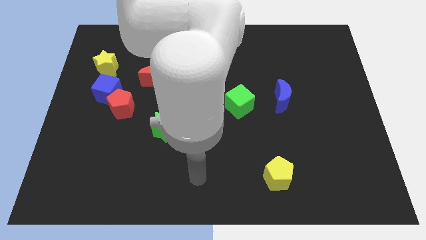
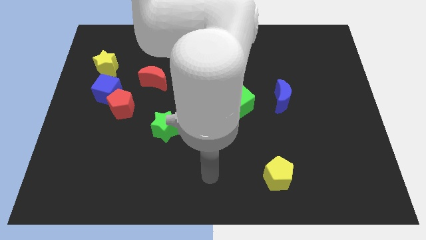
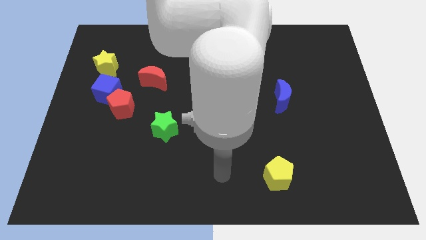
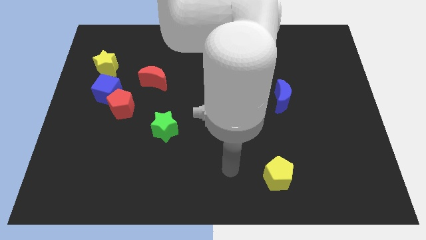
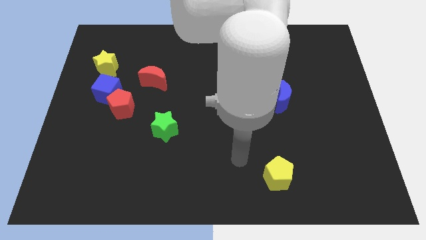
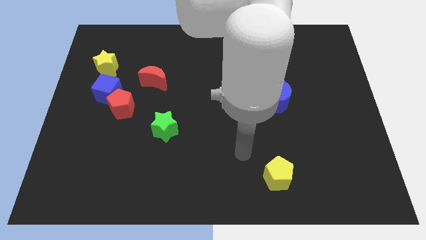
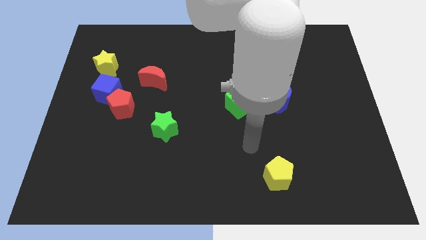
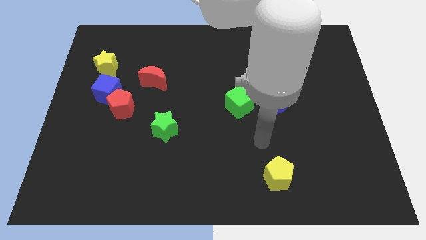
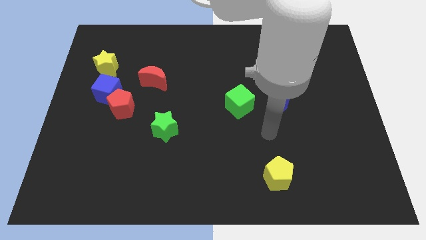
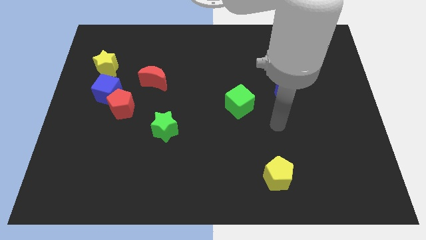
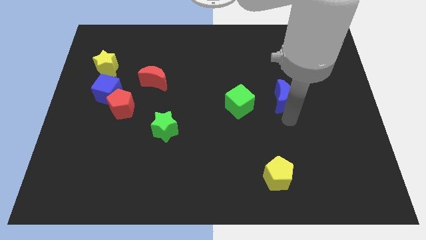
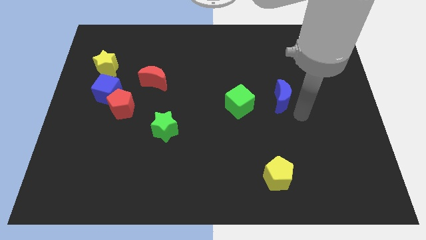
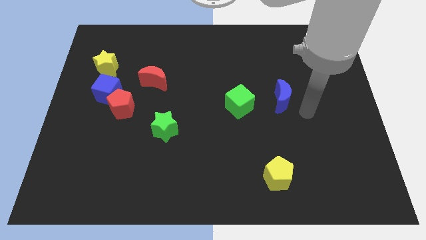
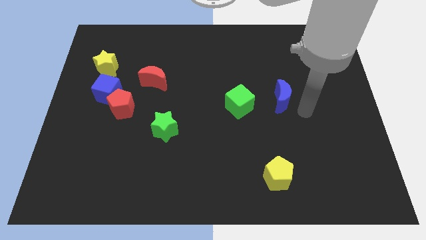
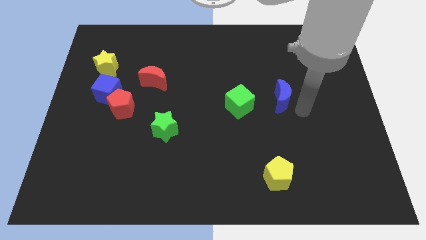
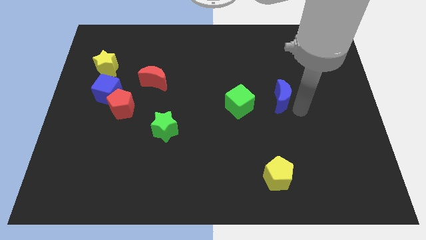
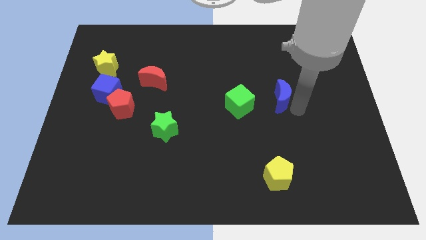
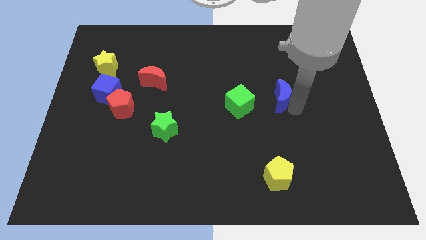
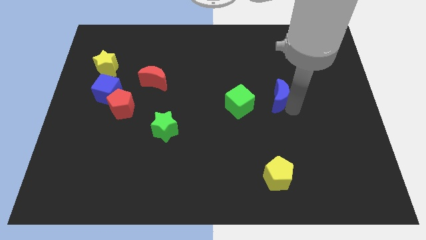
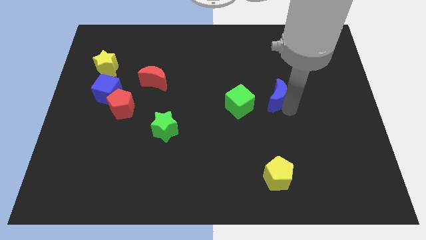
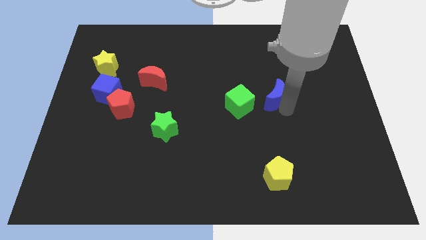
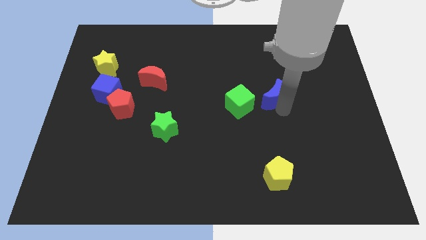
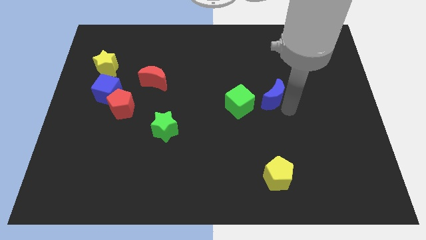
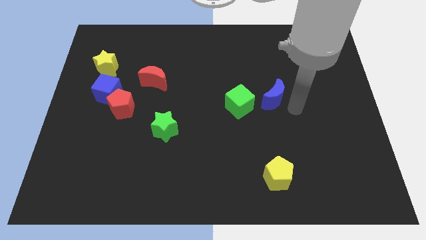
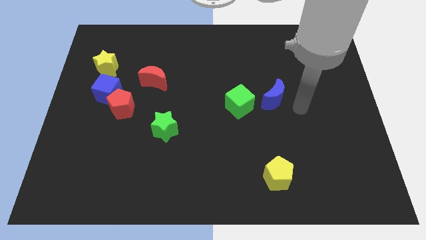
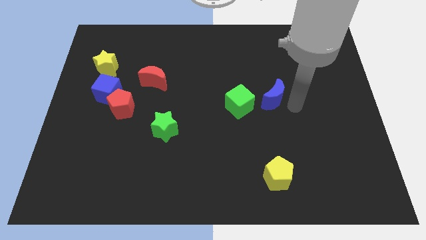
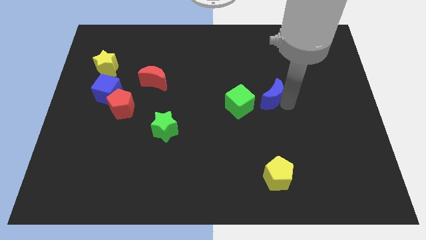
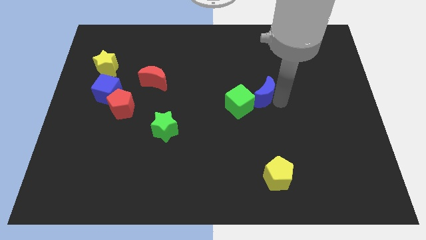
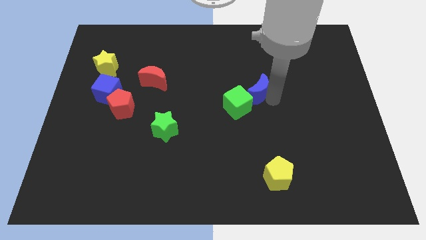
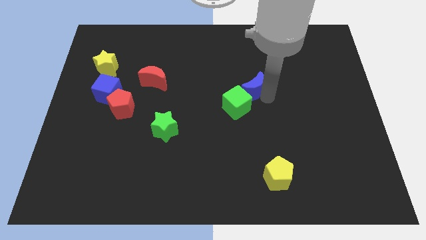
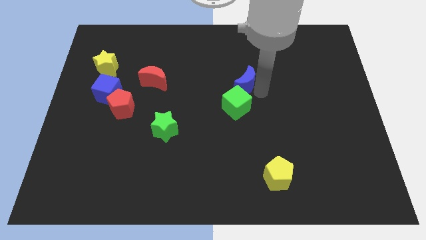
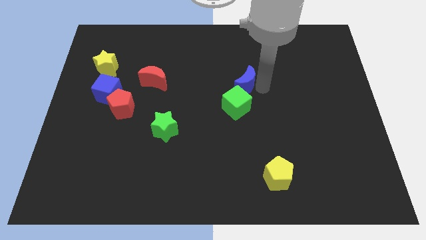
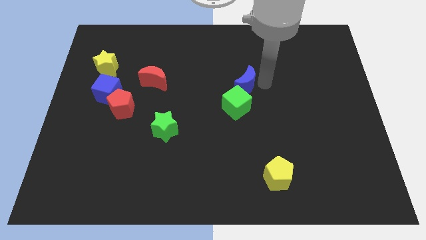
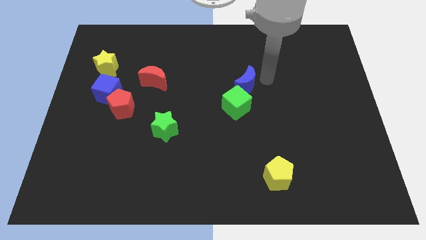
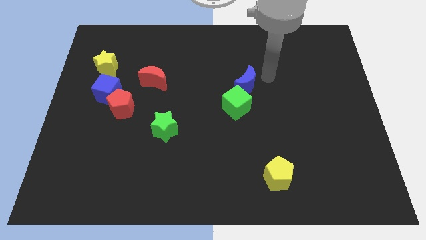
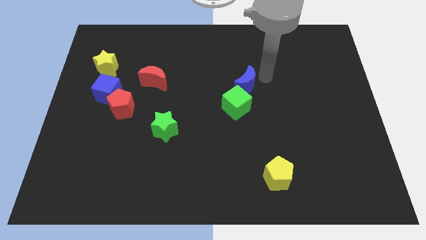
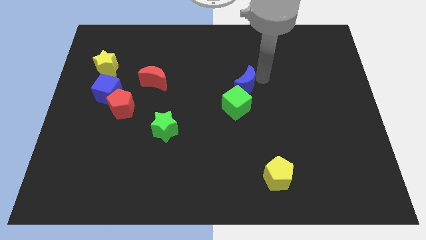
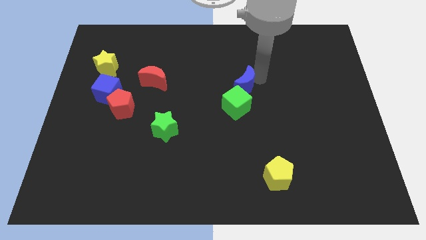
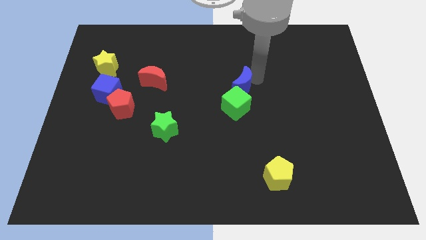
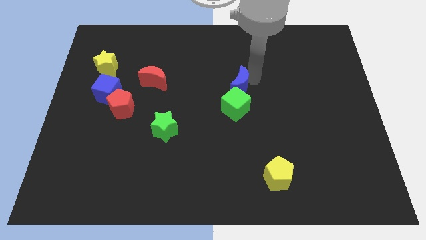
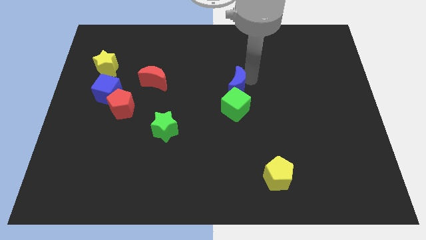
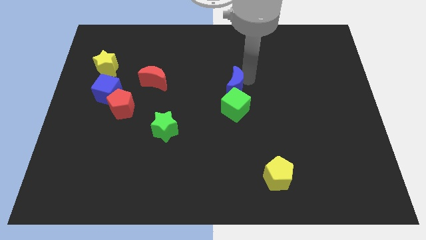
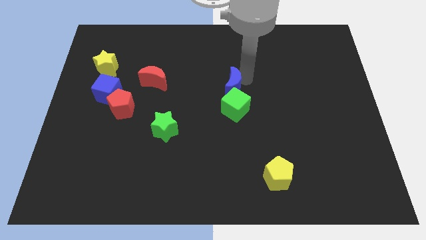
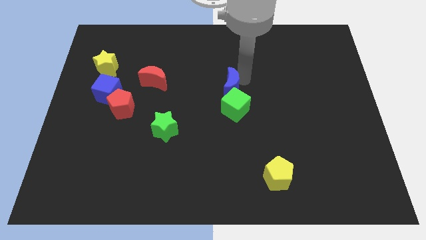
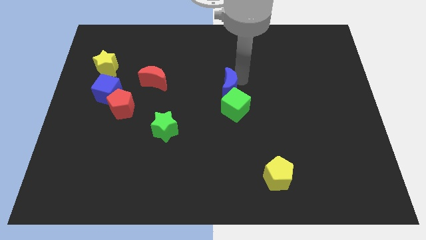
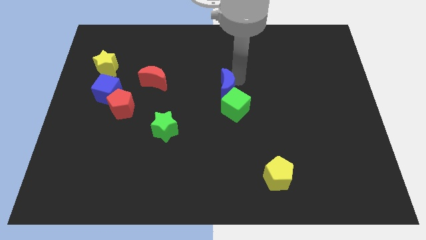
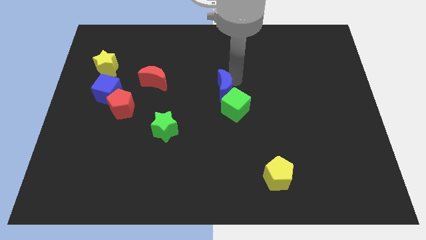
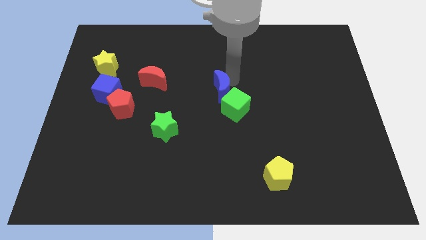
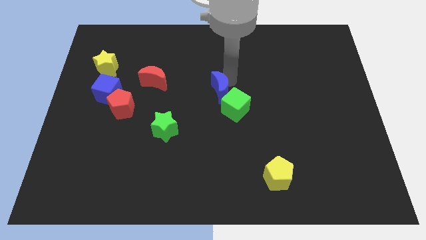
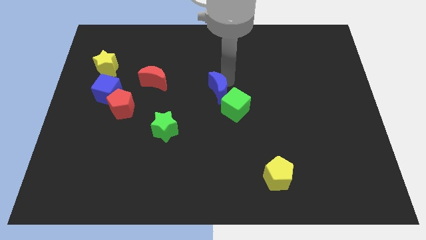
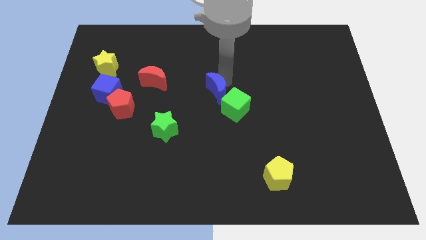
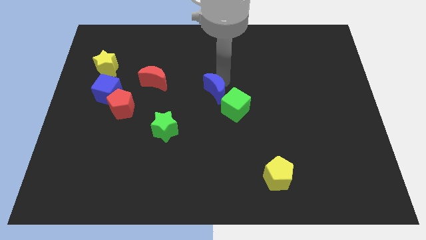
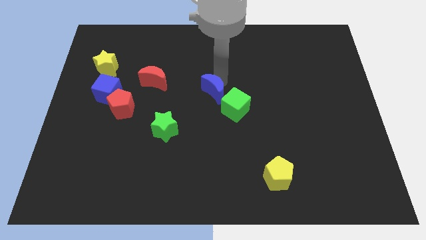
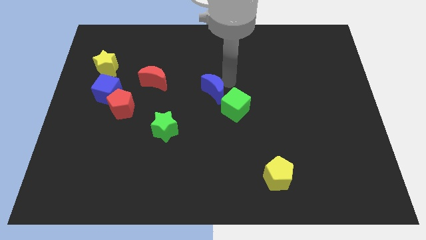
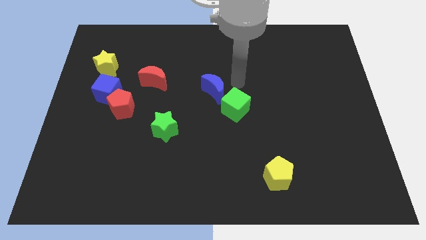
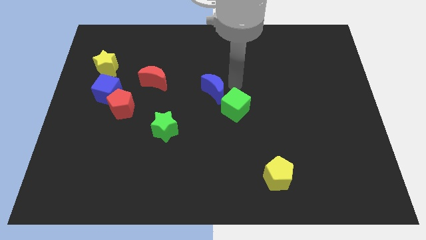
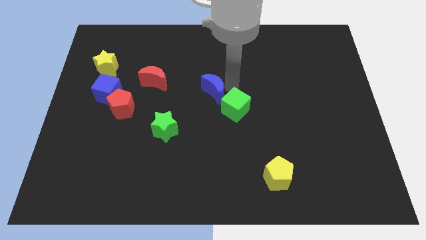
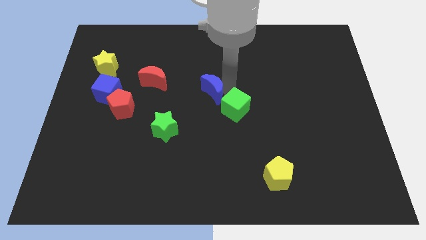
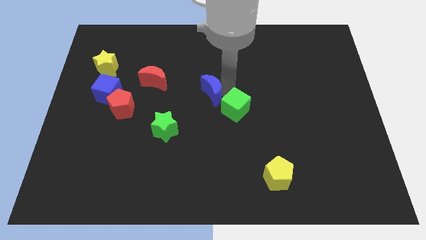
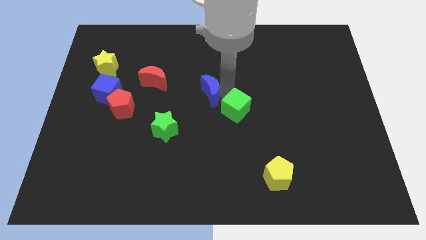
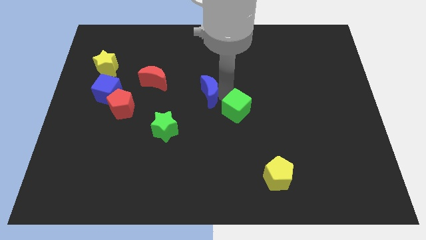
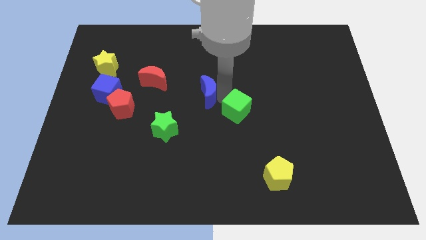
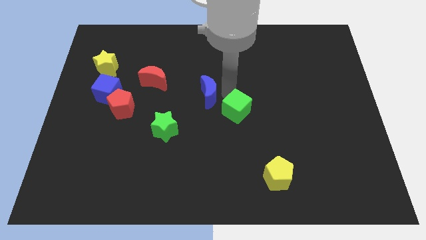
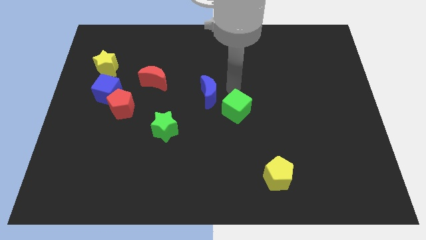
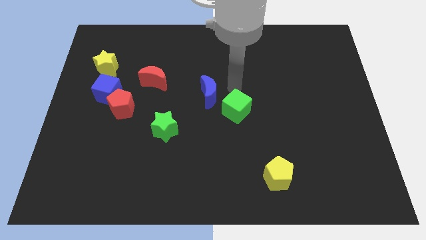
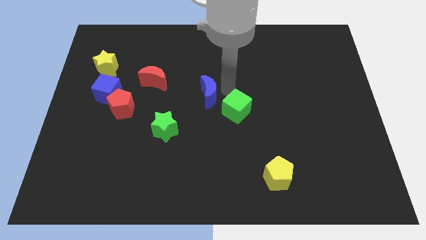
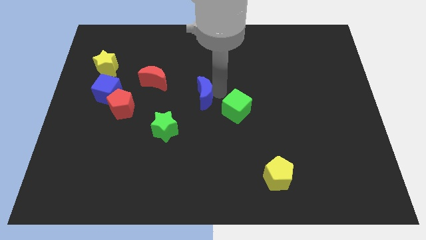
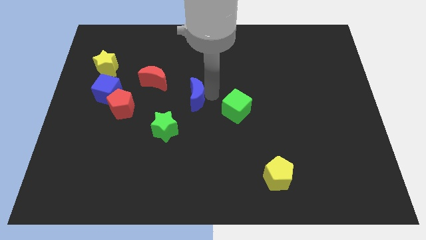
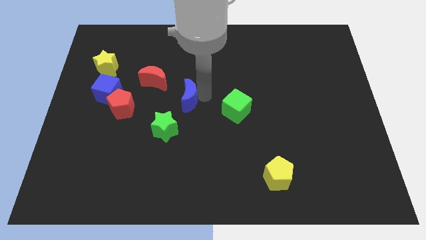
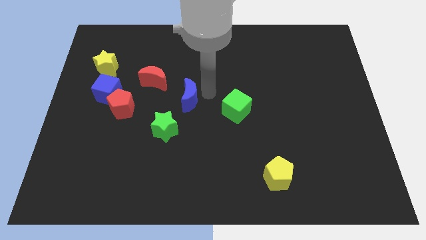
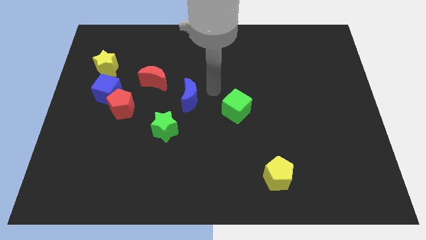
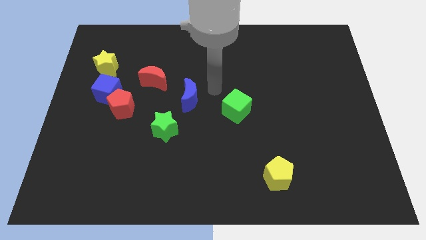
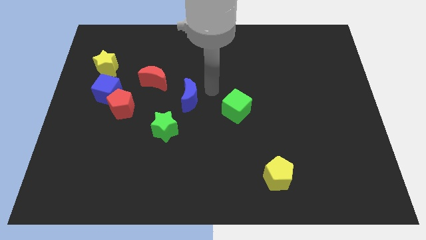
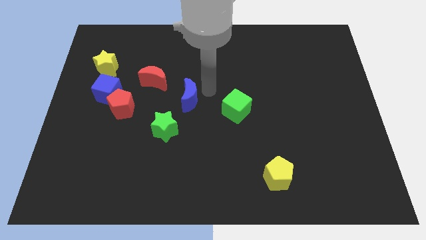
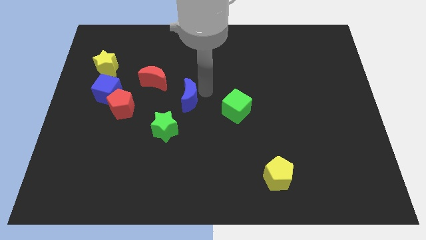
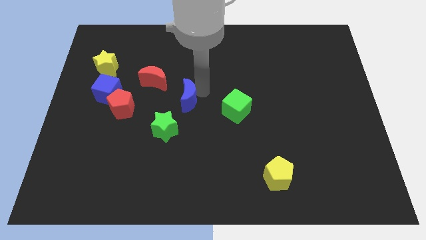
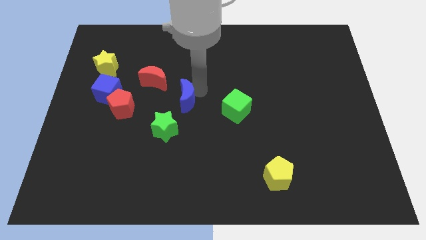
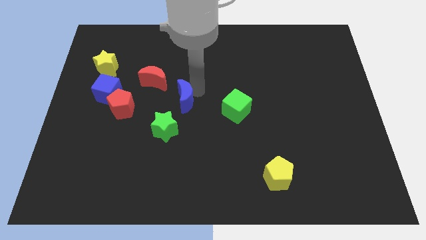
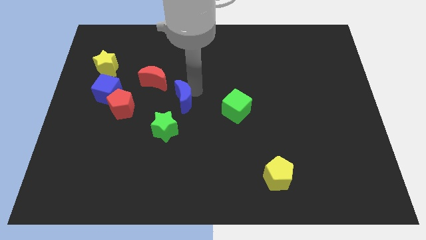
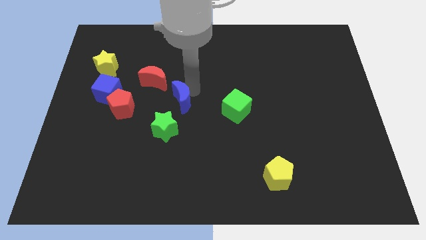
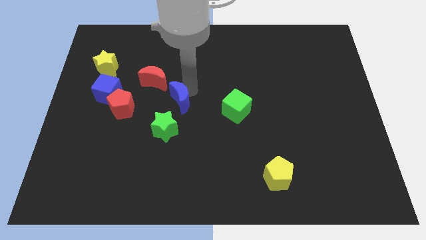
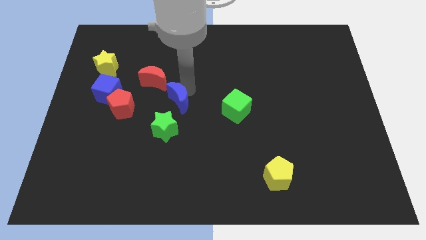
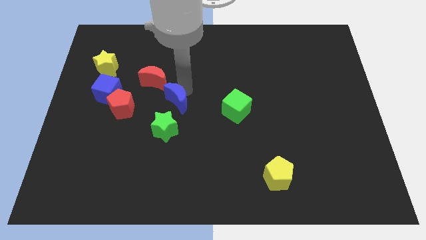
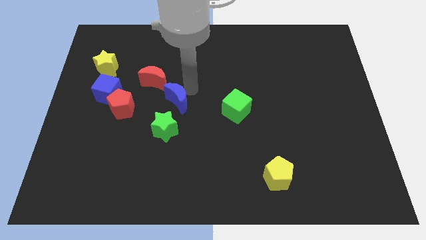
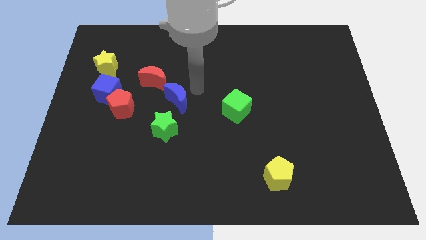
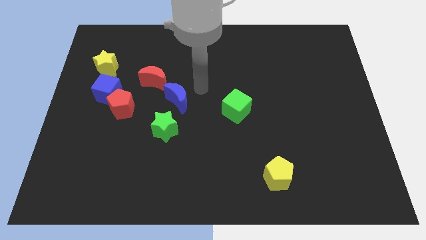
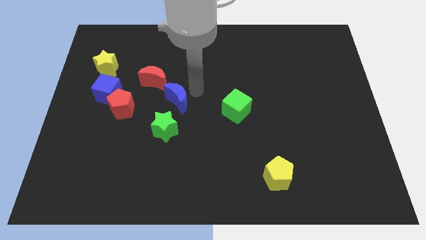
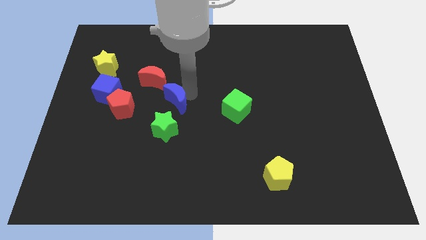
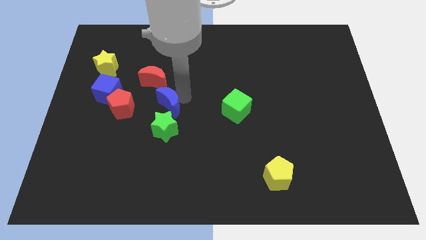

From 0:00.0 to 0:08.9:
put the blue moon to the bottom of the red moon
